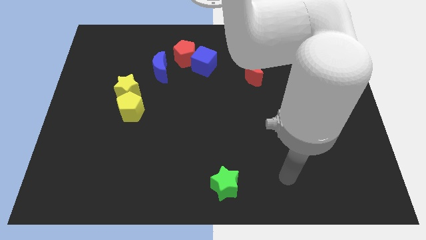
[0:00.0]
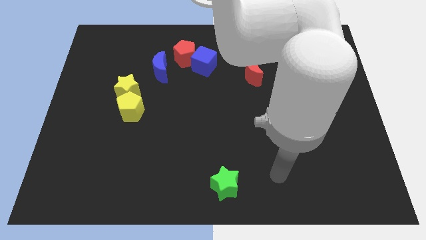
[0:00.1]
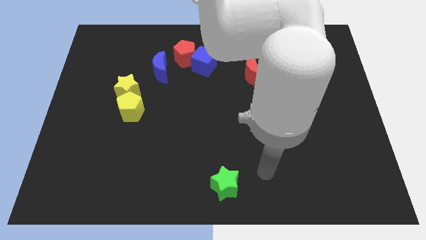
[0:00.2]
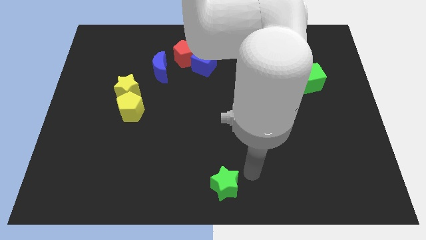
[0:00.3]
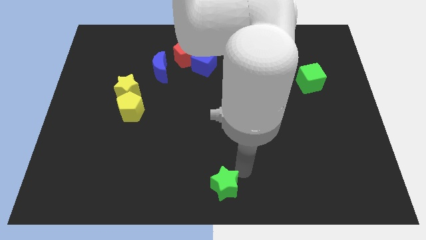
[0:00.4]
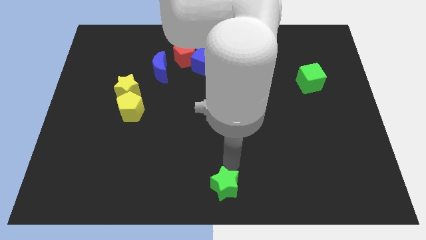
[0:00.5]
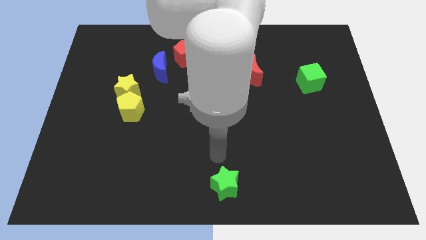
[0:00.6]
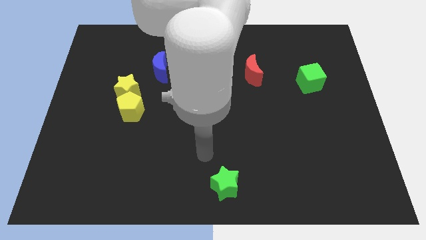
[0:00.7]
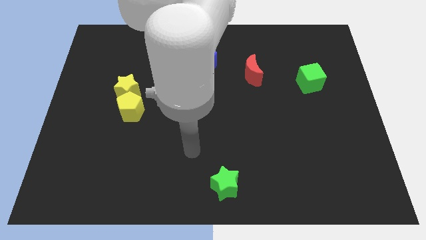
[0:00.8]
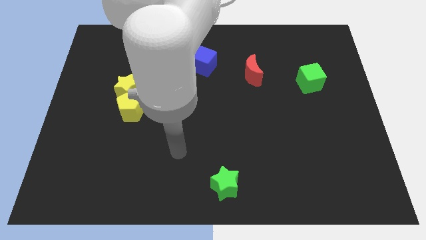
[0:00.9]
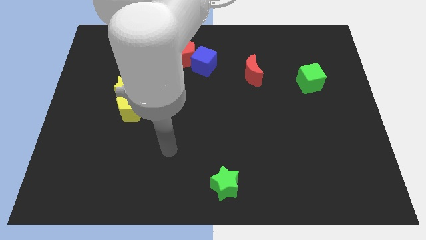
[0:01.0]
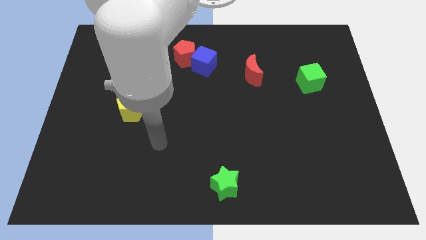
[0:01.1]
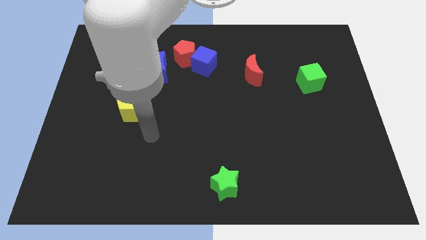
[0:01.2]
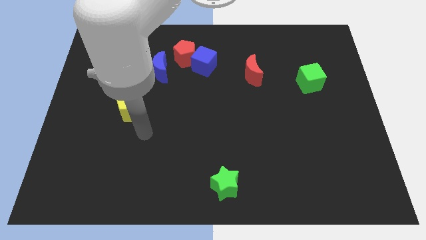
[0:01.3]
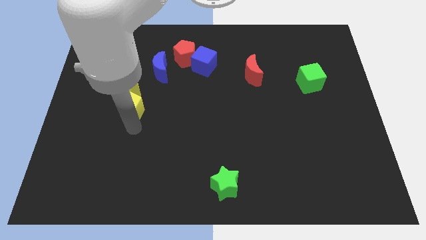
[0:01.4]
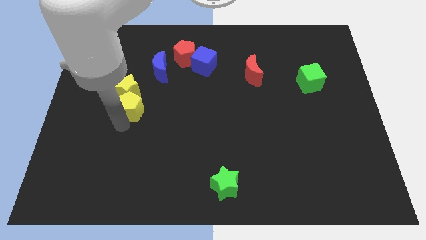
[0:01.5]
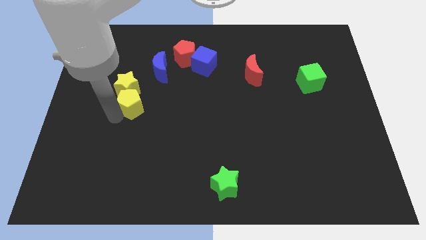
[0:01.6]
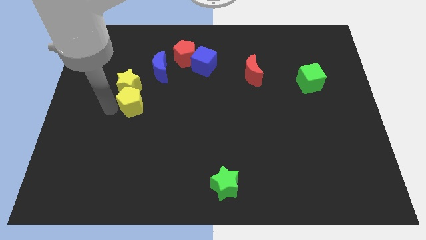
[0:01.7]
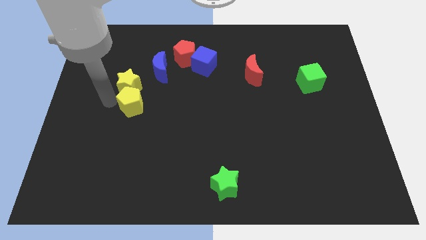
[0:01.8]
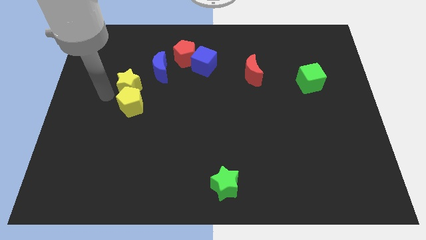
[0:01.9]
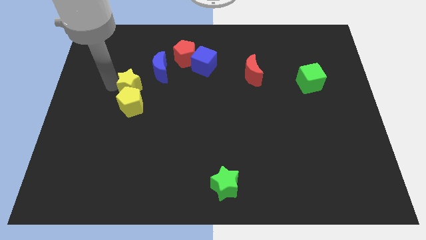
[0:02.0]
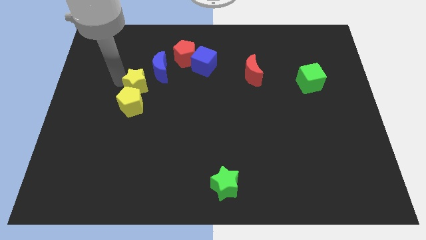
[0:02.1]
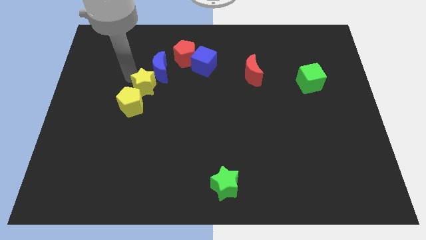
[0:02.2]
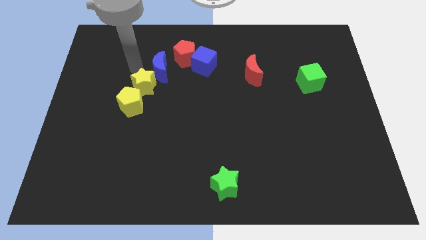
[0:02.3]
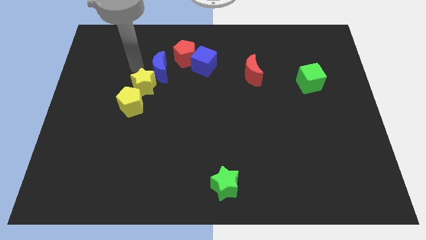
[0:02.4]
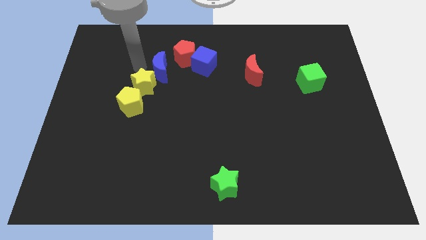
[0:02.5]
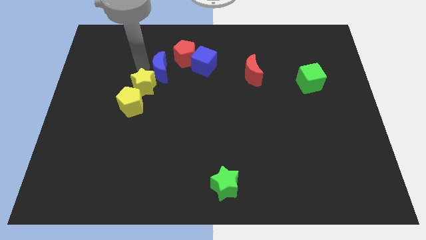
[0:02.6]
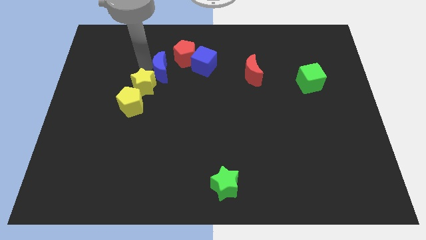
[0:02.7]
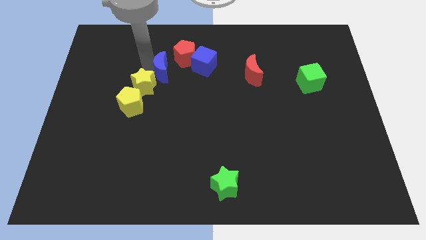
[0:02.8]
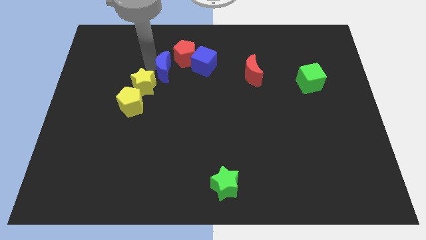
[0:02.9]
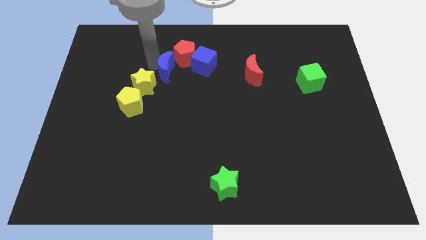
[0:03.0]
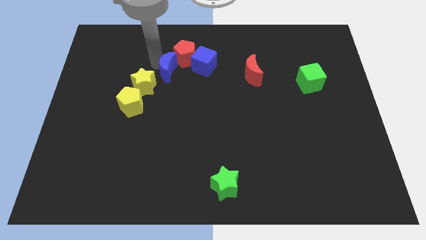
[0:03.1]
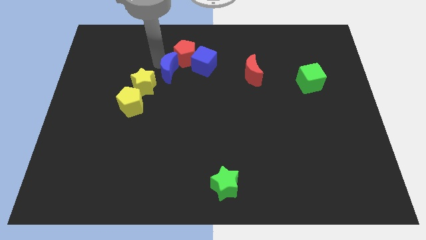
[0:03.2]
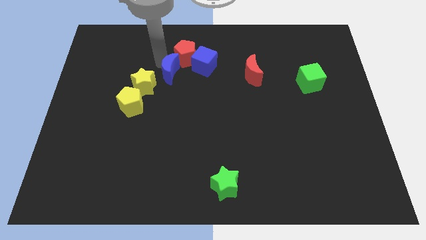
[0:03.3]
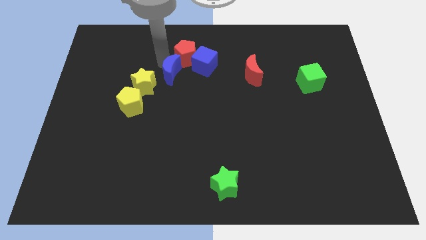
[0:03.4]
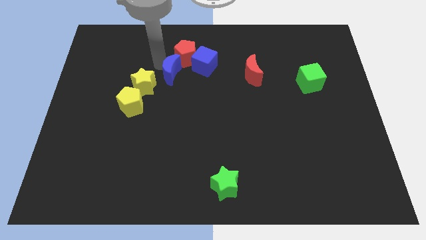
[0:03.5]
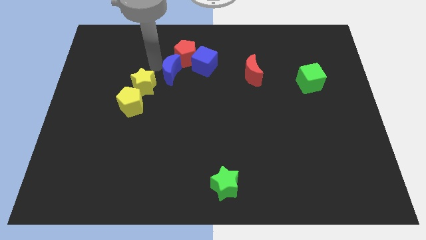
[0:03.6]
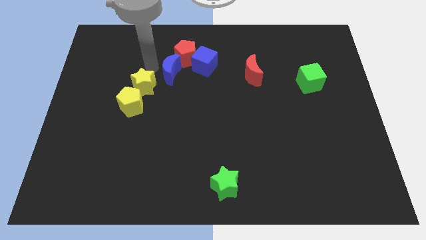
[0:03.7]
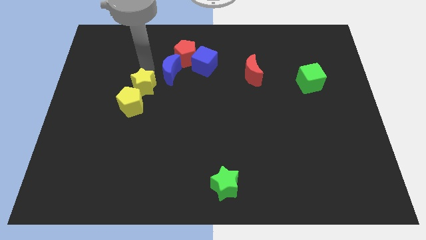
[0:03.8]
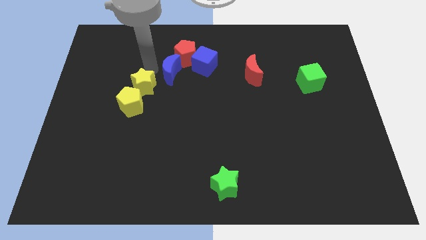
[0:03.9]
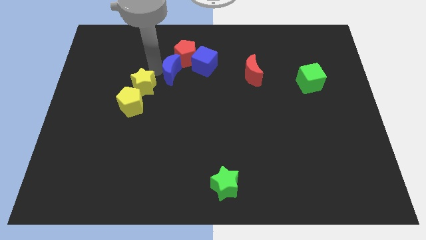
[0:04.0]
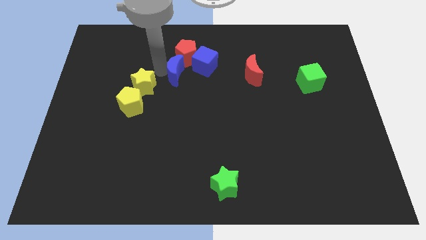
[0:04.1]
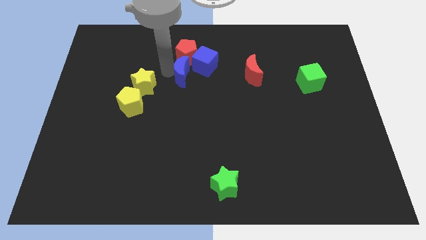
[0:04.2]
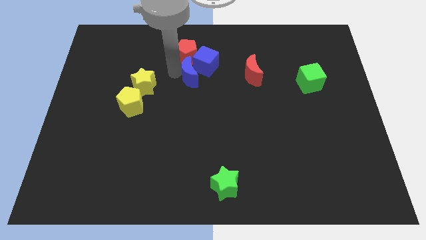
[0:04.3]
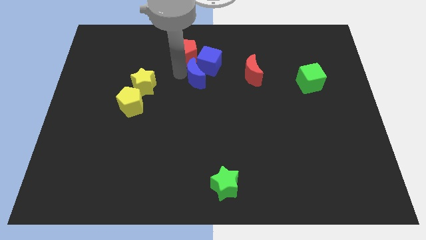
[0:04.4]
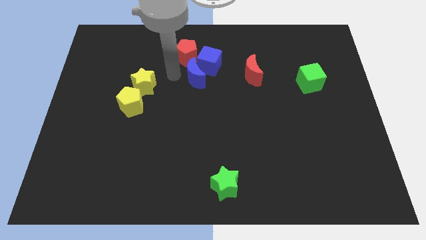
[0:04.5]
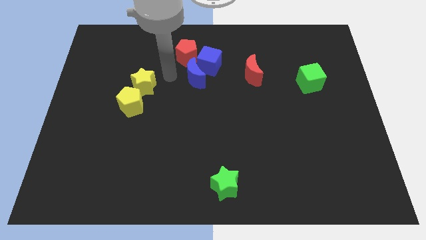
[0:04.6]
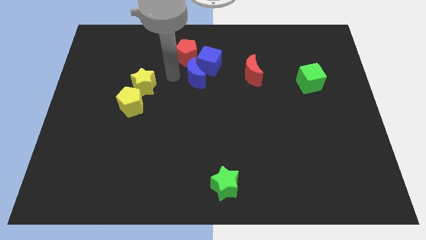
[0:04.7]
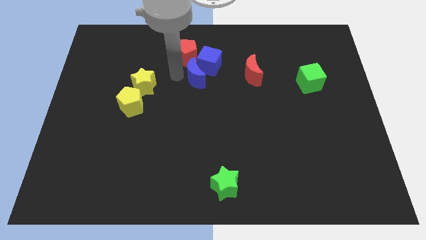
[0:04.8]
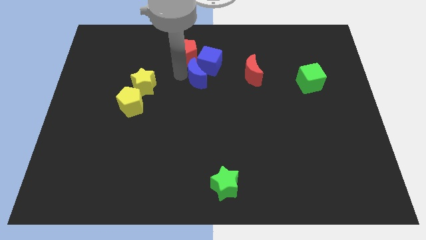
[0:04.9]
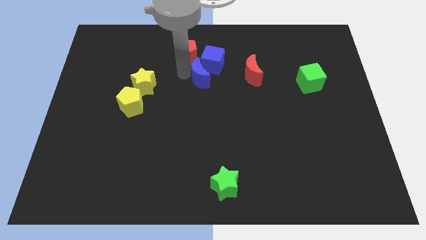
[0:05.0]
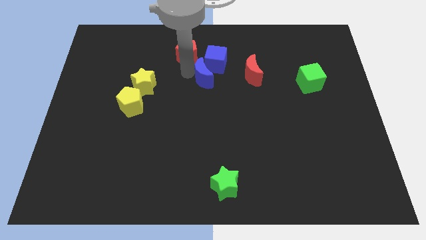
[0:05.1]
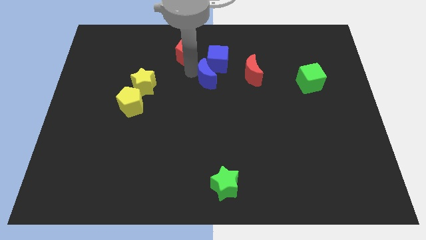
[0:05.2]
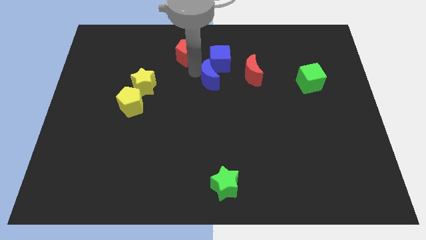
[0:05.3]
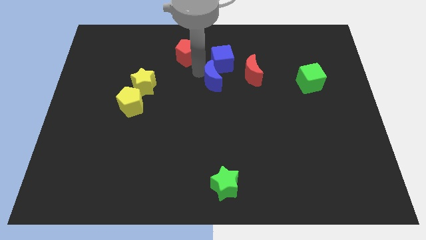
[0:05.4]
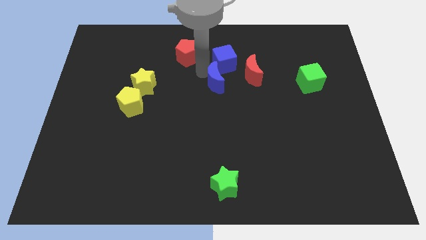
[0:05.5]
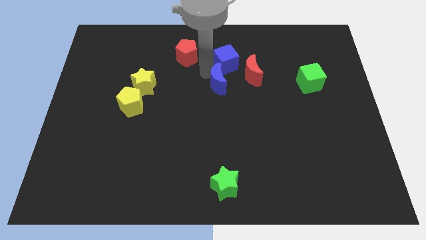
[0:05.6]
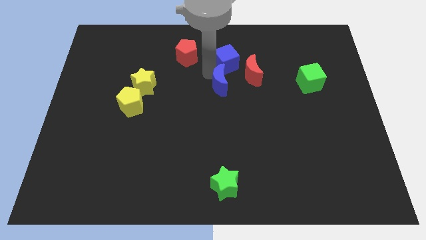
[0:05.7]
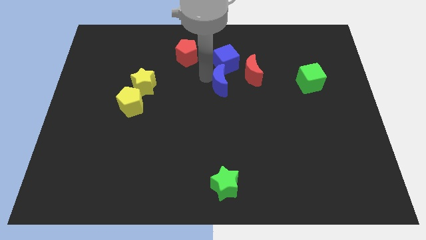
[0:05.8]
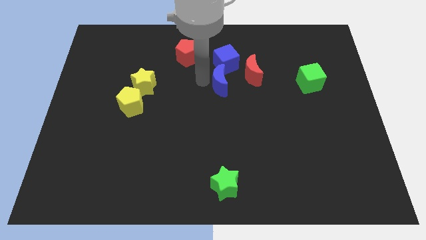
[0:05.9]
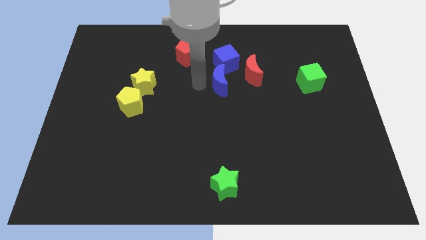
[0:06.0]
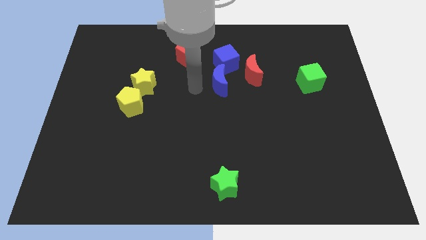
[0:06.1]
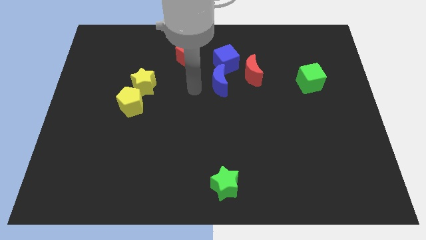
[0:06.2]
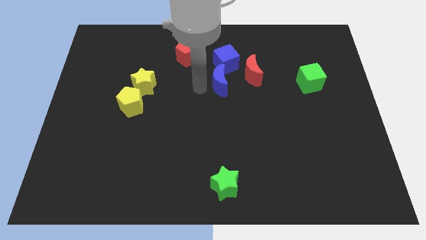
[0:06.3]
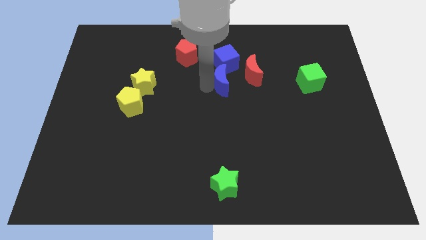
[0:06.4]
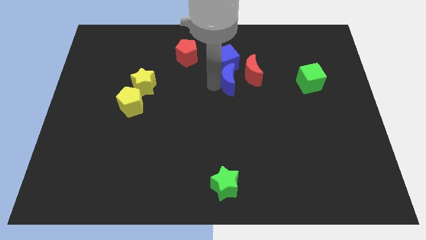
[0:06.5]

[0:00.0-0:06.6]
move the blue moon diagonally down and to the right of the blue cube

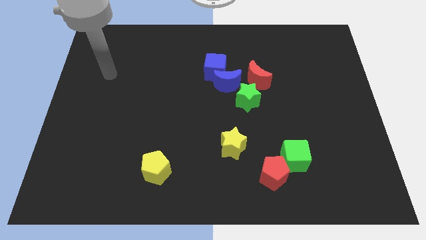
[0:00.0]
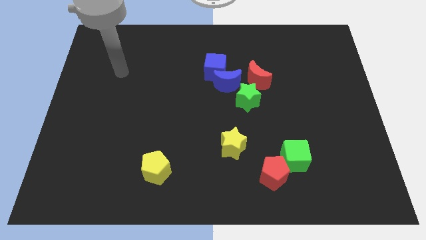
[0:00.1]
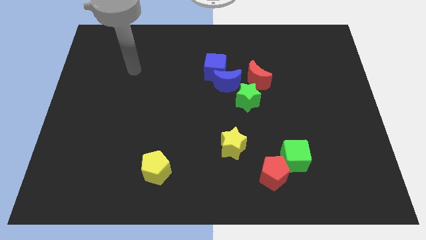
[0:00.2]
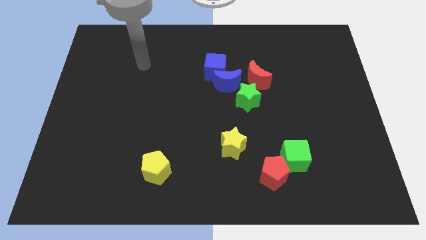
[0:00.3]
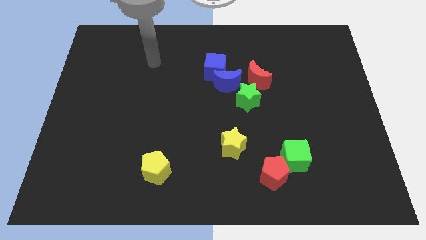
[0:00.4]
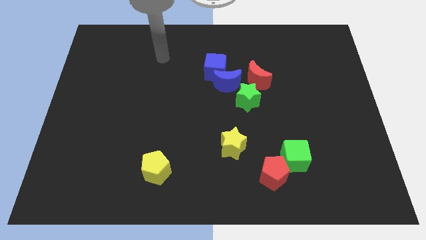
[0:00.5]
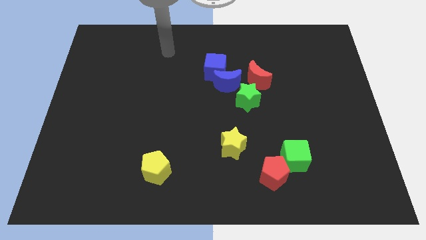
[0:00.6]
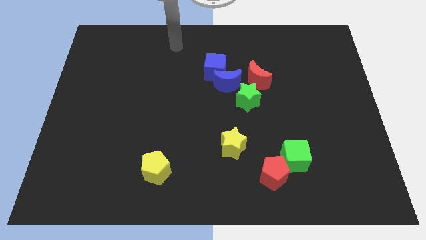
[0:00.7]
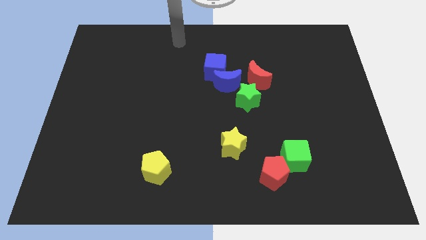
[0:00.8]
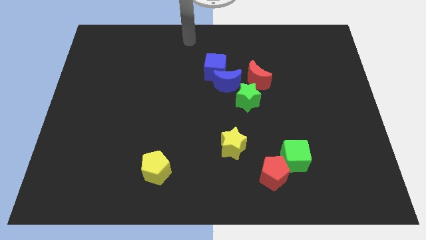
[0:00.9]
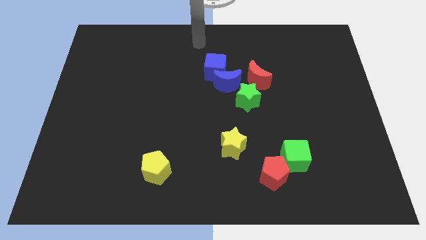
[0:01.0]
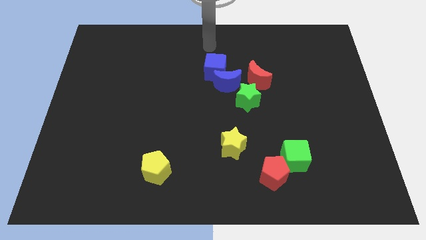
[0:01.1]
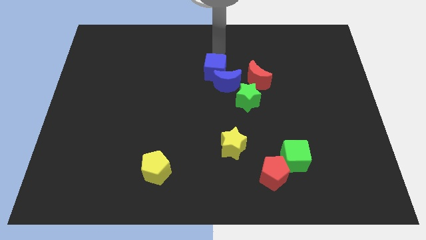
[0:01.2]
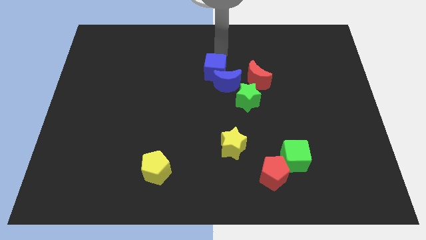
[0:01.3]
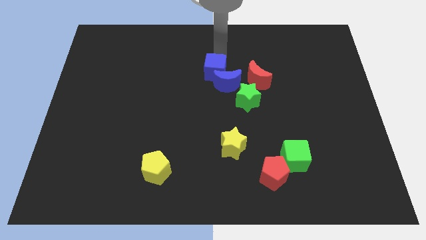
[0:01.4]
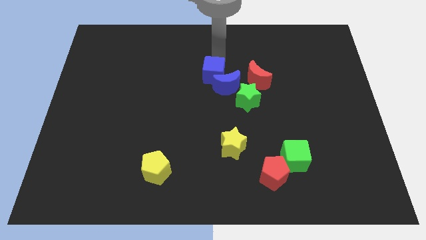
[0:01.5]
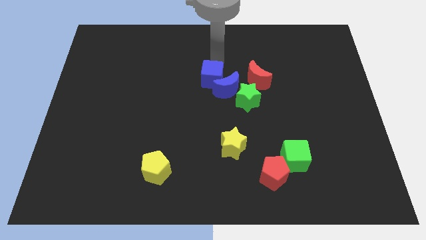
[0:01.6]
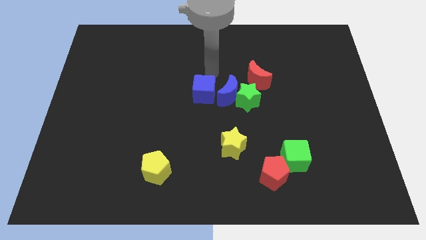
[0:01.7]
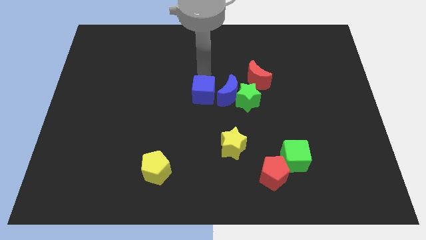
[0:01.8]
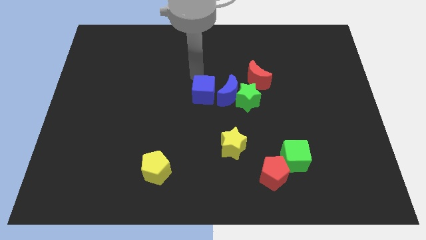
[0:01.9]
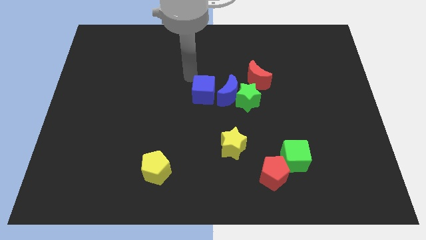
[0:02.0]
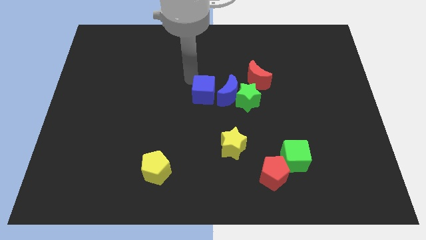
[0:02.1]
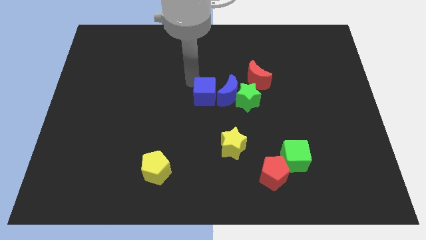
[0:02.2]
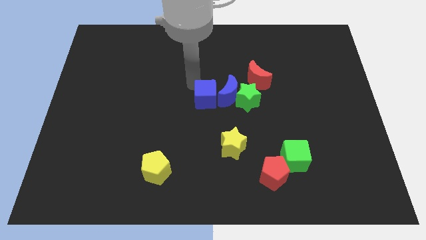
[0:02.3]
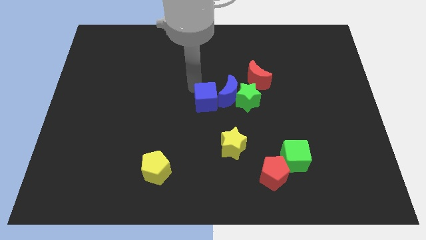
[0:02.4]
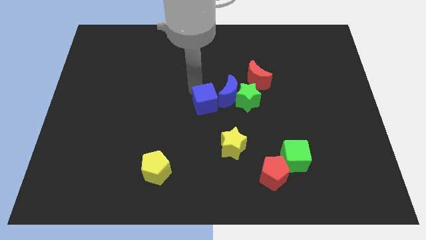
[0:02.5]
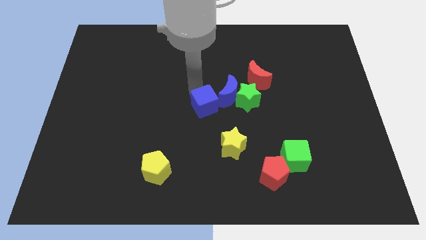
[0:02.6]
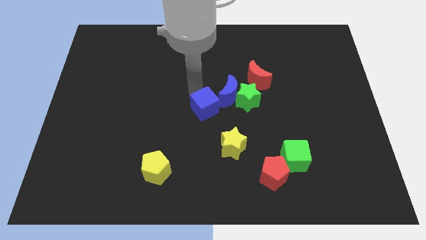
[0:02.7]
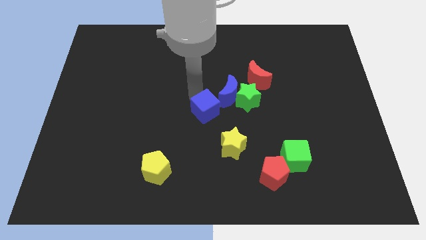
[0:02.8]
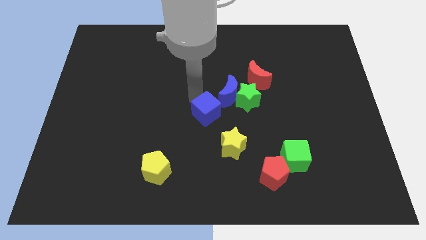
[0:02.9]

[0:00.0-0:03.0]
put the blue cube to the bottom left of the green star
